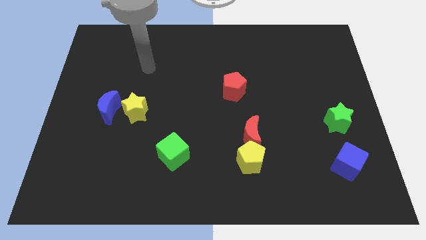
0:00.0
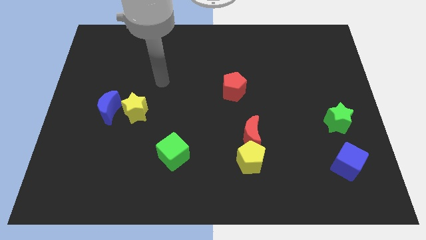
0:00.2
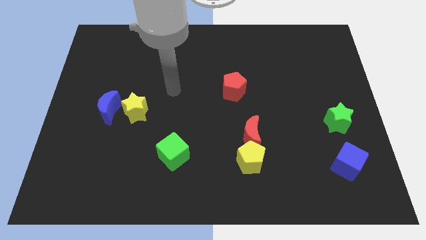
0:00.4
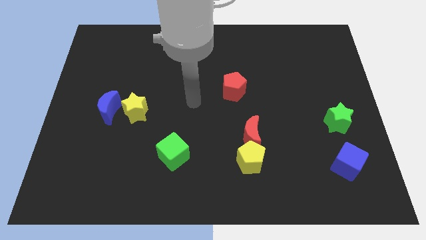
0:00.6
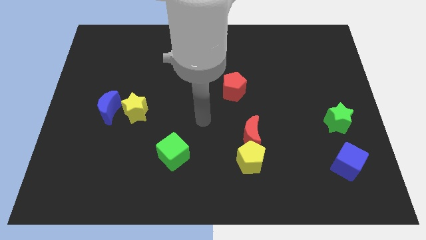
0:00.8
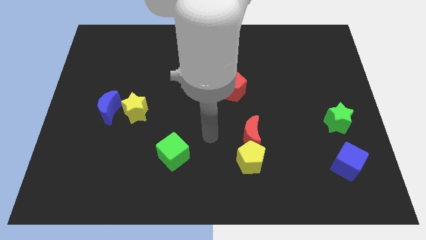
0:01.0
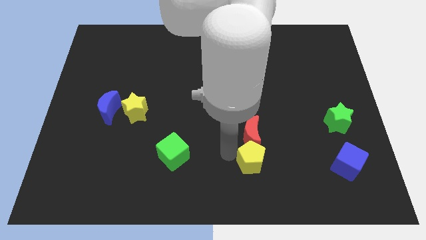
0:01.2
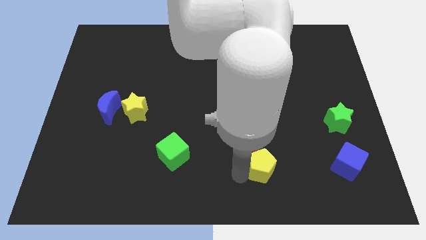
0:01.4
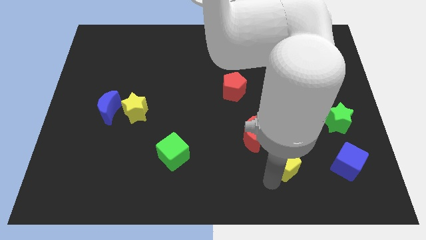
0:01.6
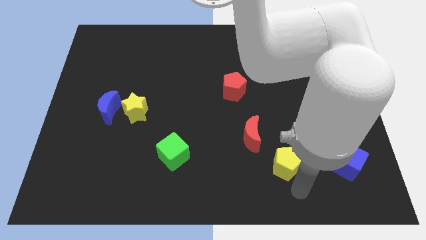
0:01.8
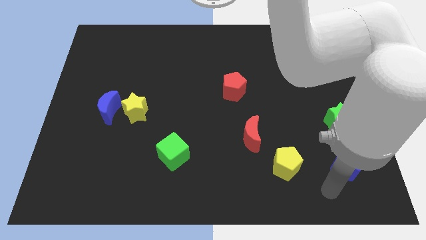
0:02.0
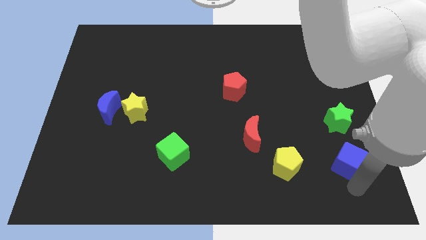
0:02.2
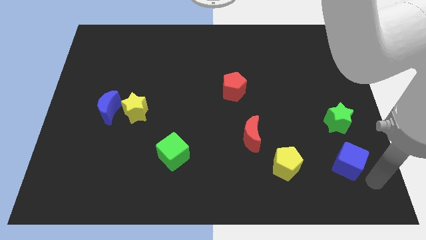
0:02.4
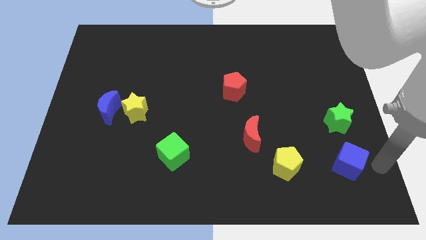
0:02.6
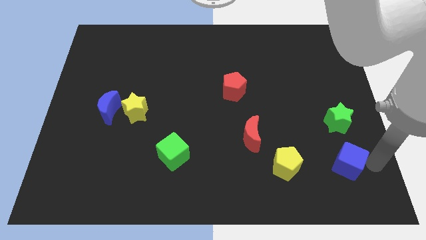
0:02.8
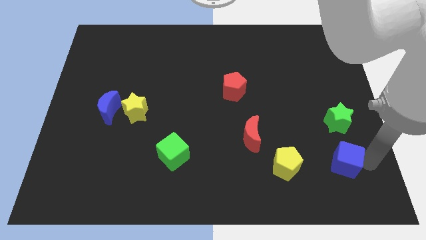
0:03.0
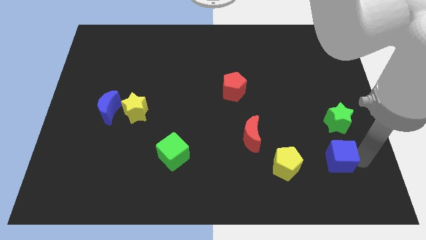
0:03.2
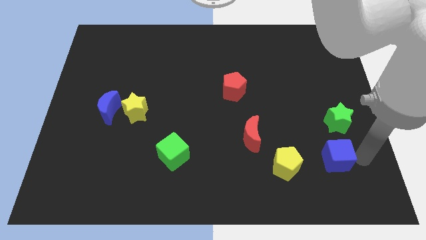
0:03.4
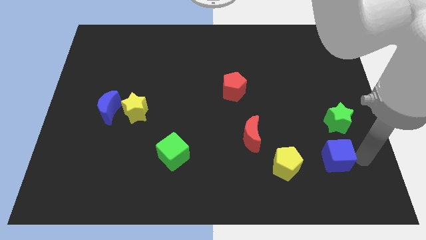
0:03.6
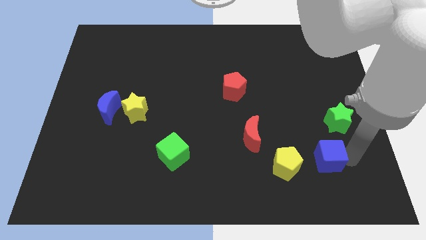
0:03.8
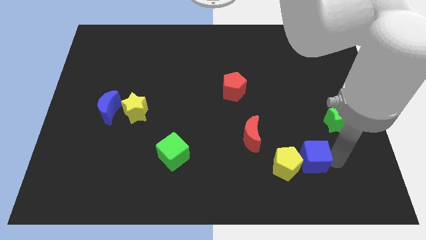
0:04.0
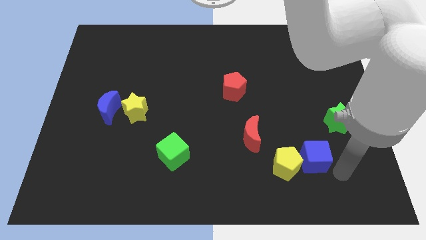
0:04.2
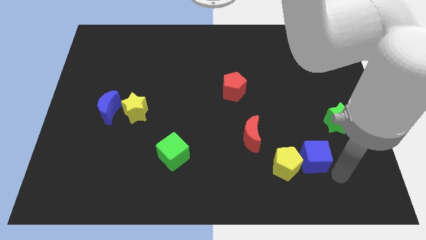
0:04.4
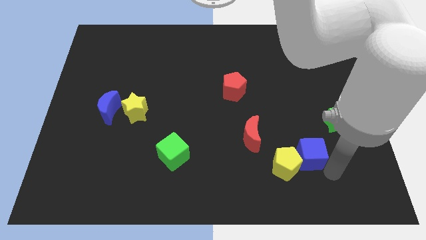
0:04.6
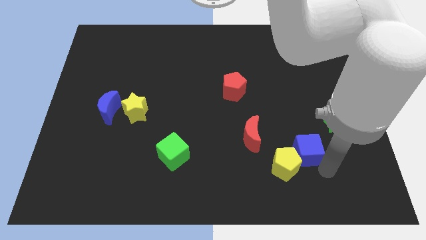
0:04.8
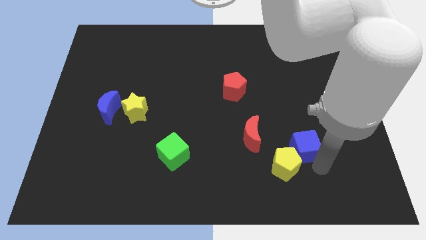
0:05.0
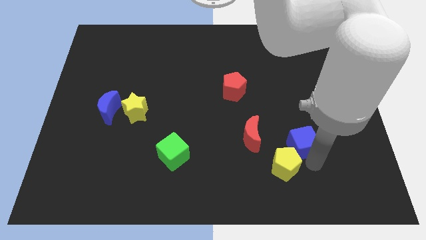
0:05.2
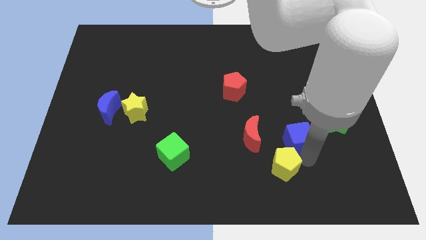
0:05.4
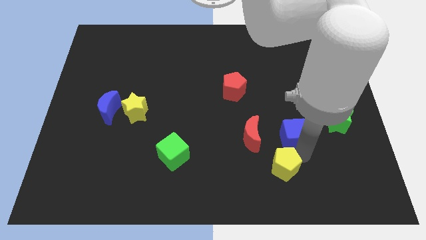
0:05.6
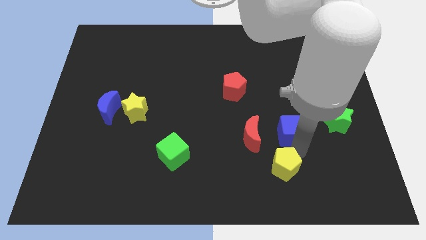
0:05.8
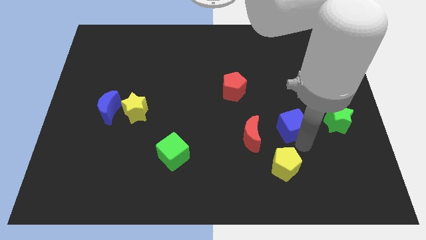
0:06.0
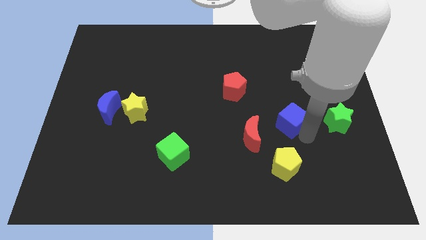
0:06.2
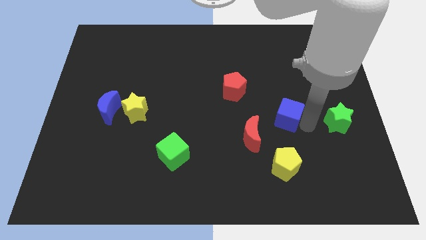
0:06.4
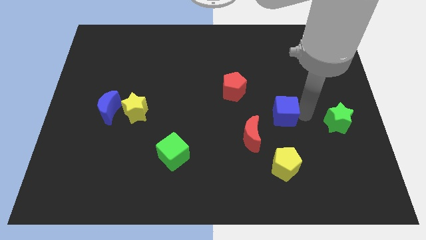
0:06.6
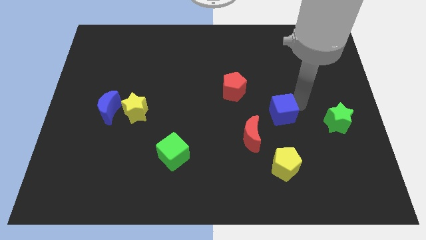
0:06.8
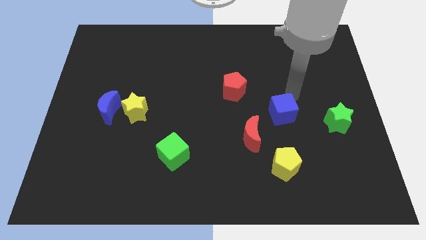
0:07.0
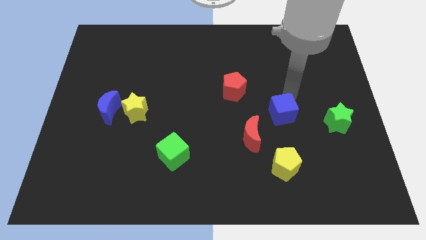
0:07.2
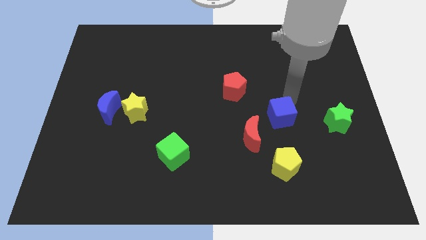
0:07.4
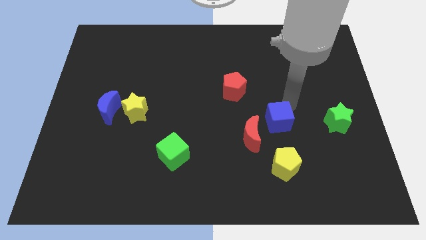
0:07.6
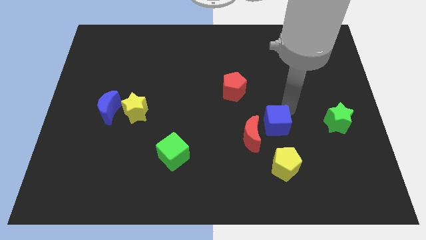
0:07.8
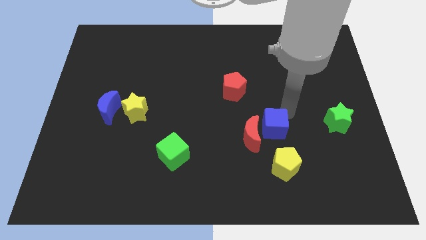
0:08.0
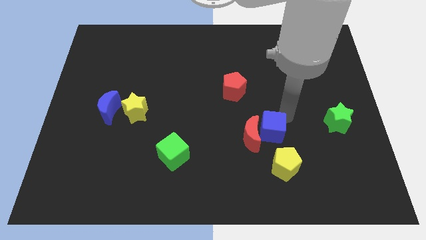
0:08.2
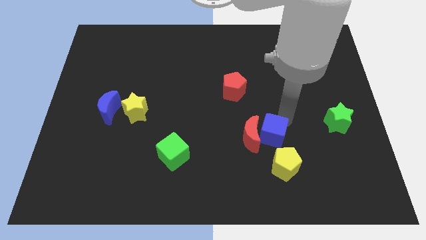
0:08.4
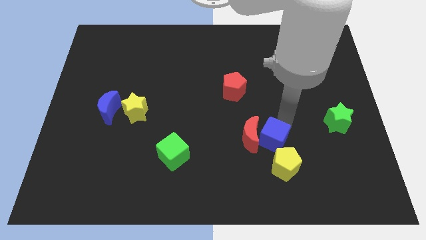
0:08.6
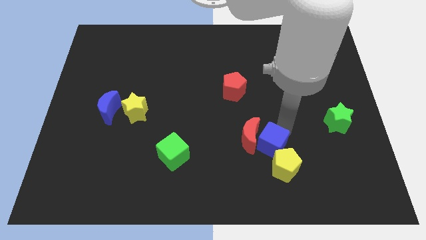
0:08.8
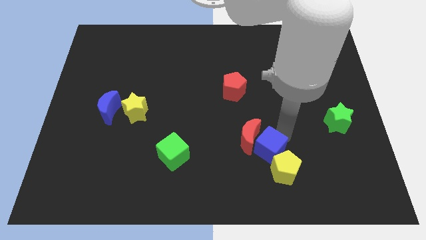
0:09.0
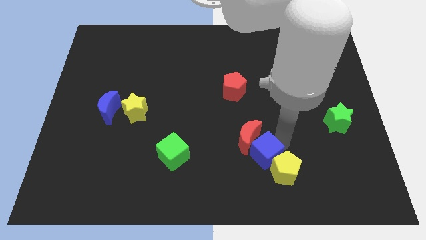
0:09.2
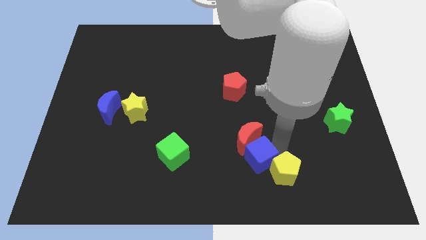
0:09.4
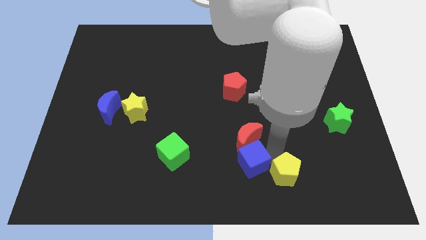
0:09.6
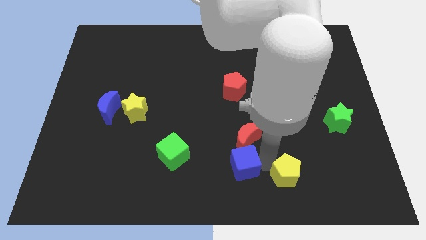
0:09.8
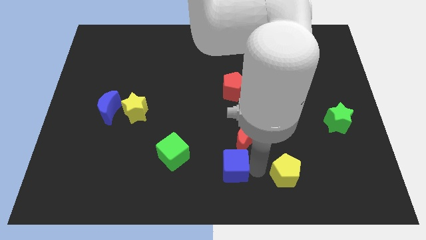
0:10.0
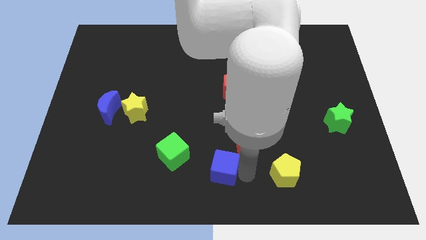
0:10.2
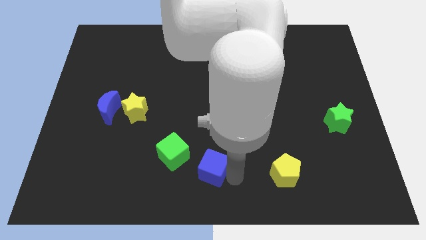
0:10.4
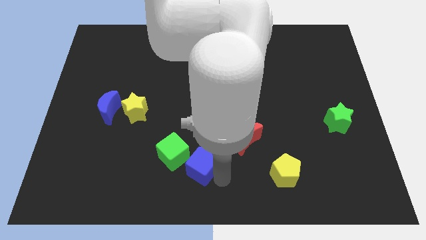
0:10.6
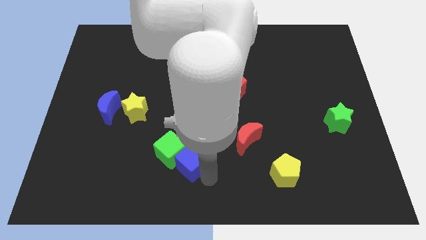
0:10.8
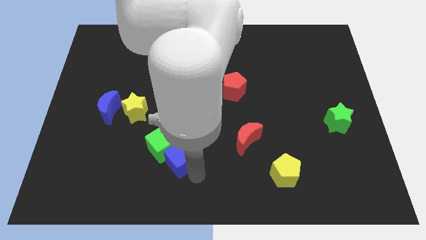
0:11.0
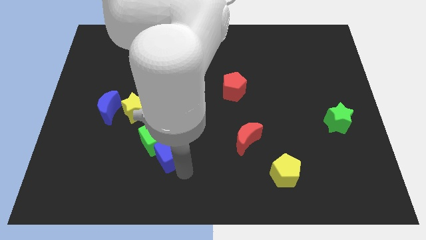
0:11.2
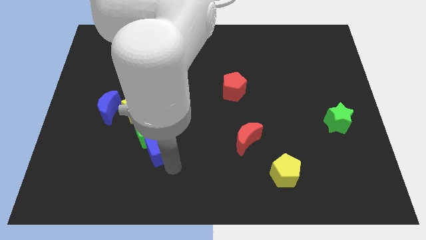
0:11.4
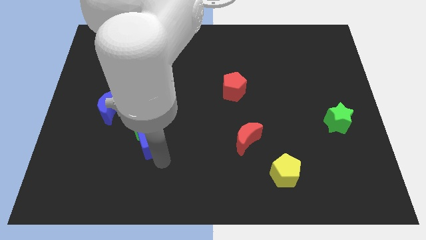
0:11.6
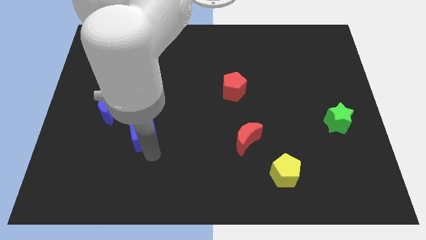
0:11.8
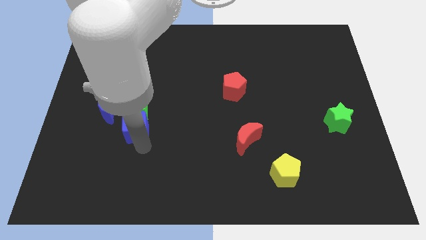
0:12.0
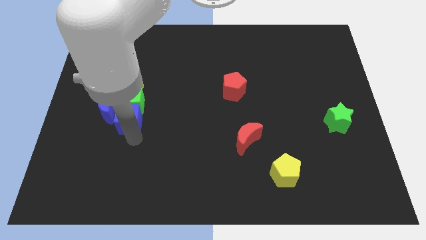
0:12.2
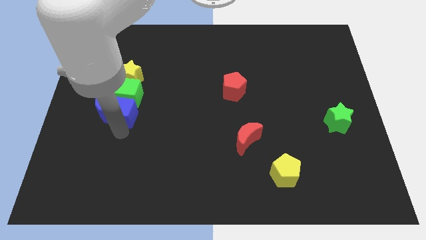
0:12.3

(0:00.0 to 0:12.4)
move the blue cube to the top right of the blue moon

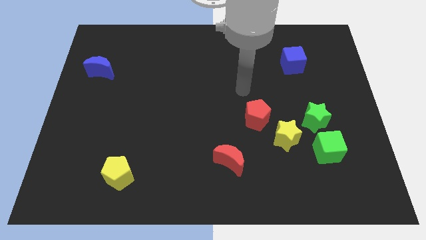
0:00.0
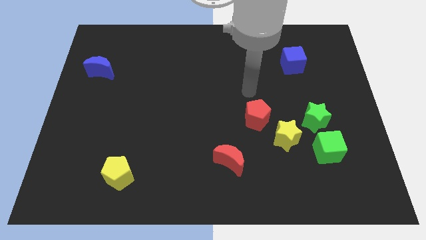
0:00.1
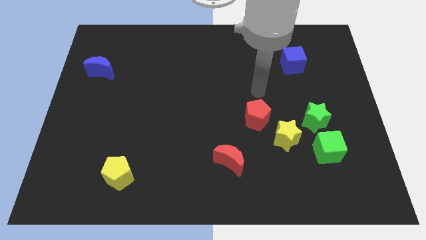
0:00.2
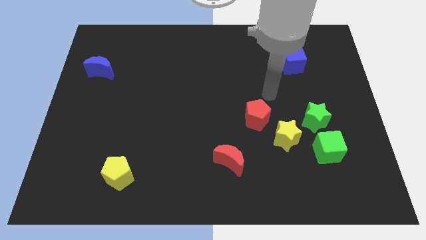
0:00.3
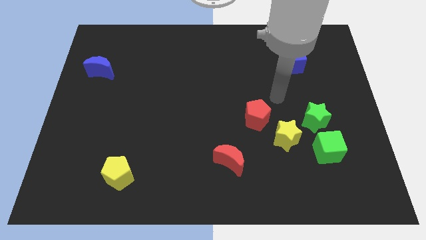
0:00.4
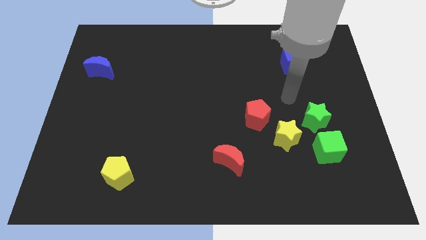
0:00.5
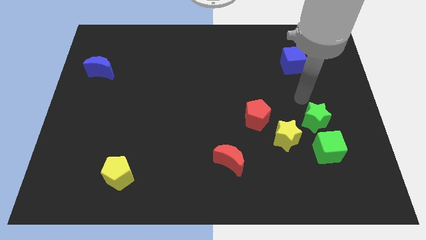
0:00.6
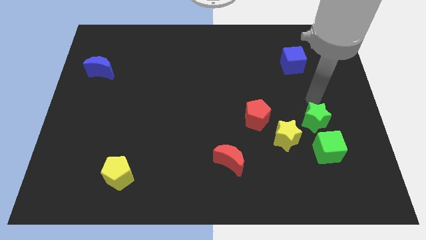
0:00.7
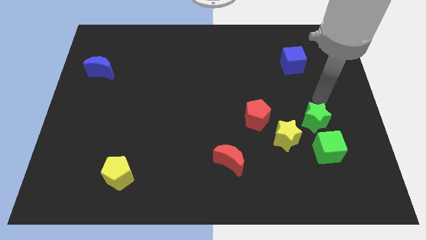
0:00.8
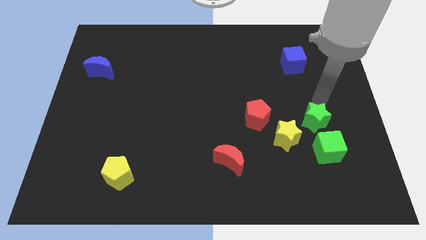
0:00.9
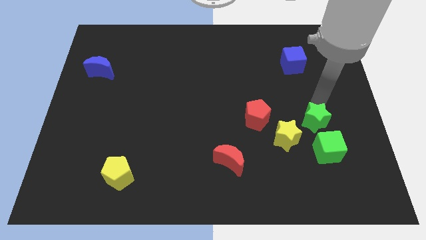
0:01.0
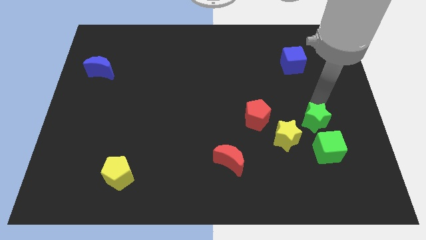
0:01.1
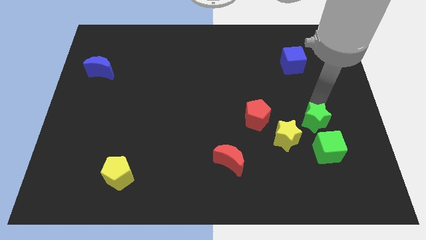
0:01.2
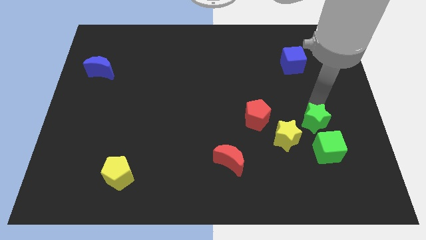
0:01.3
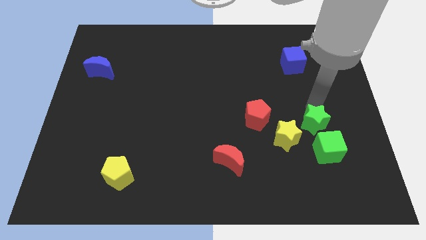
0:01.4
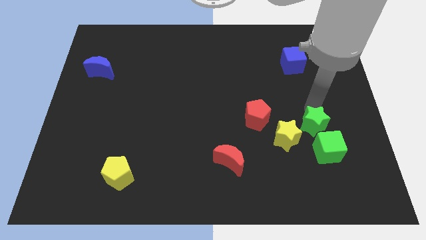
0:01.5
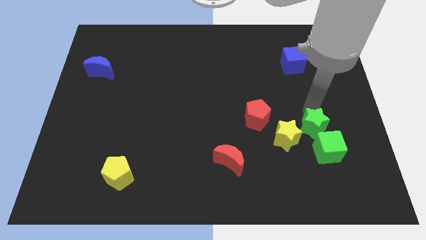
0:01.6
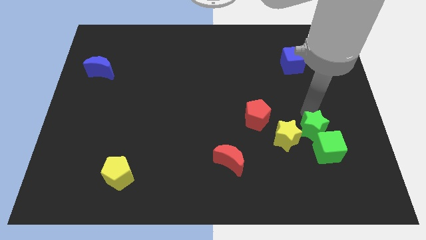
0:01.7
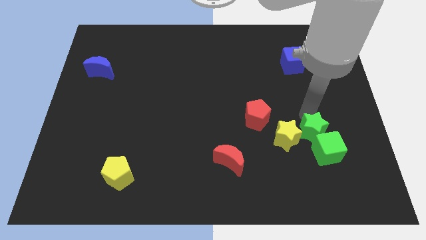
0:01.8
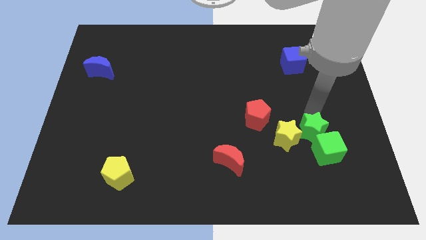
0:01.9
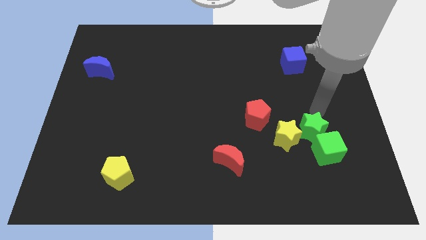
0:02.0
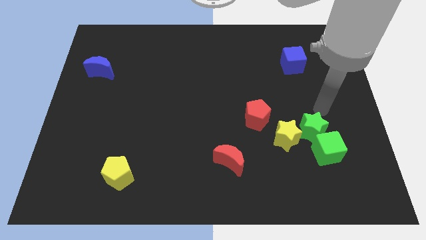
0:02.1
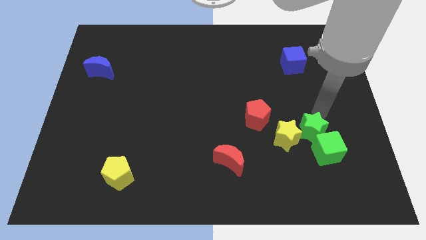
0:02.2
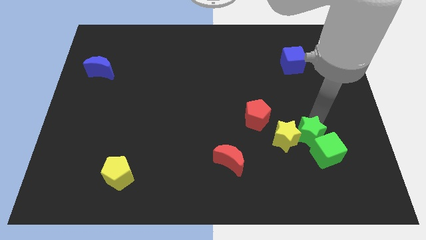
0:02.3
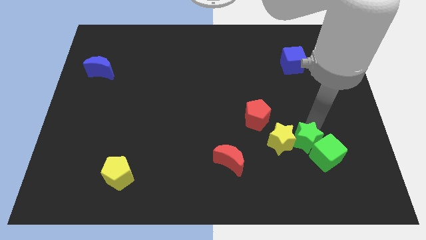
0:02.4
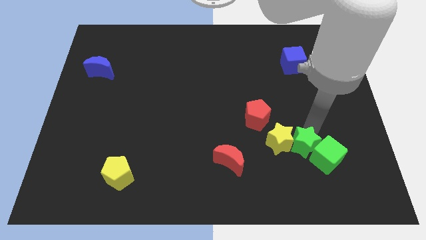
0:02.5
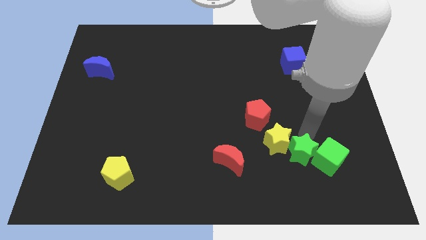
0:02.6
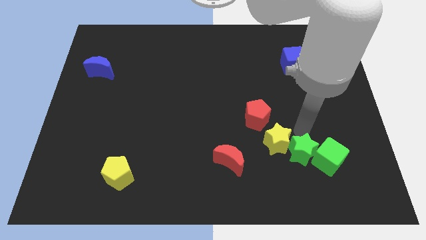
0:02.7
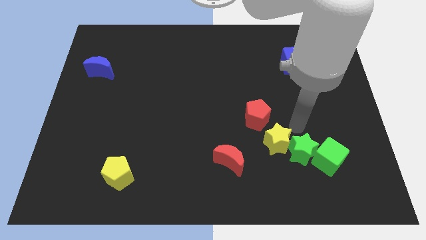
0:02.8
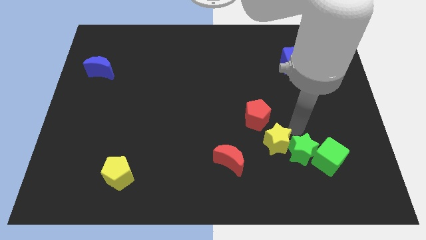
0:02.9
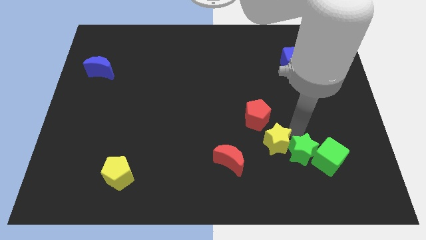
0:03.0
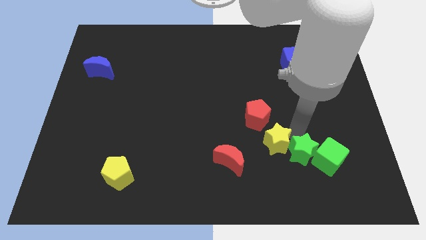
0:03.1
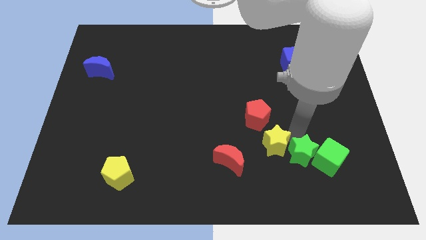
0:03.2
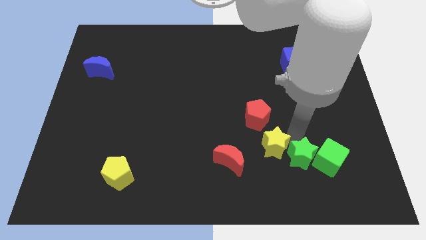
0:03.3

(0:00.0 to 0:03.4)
put the green star to the bottom left side of the green cube
